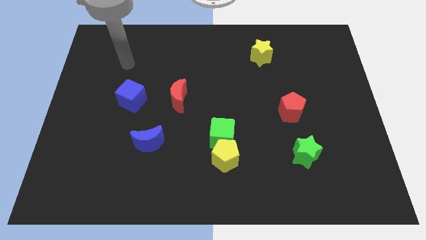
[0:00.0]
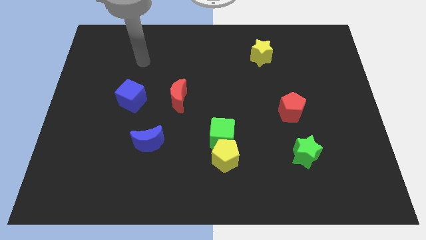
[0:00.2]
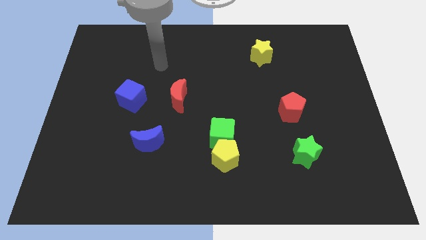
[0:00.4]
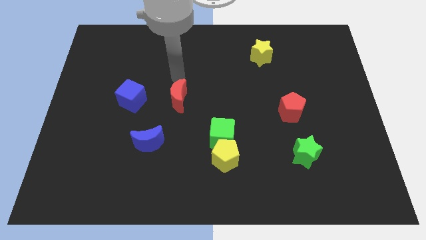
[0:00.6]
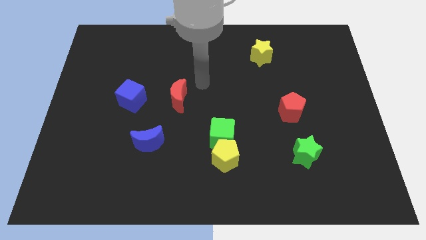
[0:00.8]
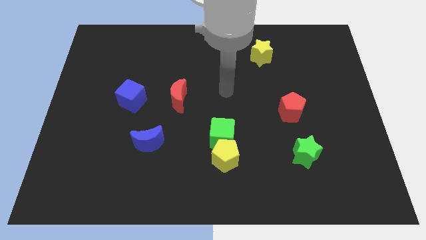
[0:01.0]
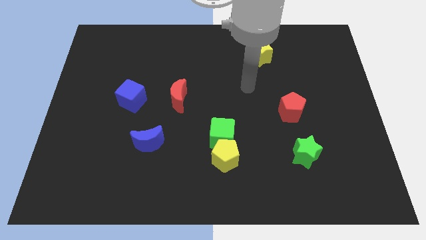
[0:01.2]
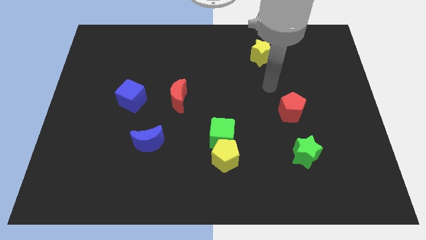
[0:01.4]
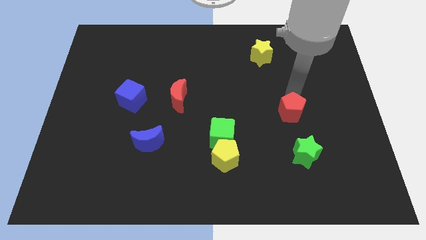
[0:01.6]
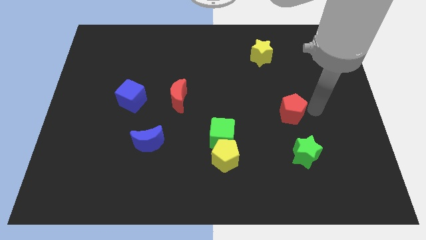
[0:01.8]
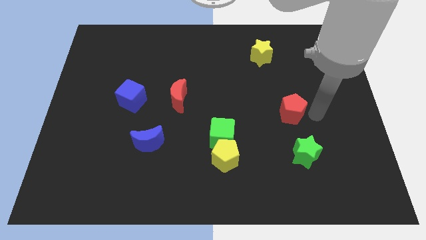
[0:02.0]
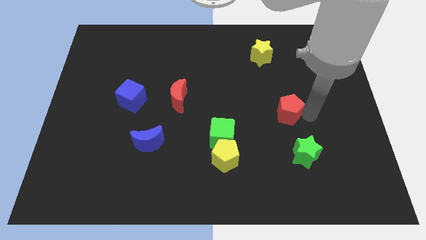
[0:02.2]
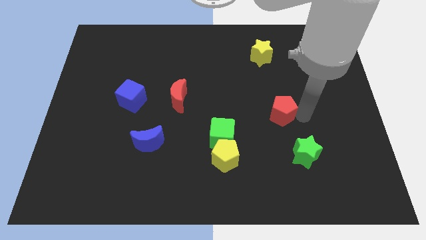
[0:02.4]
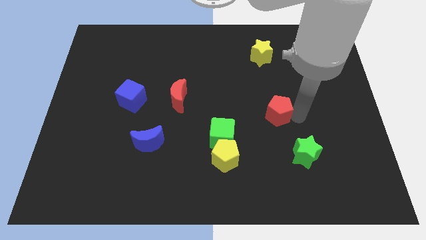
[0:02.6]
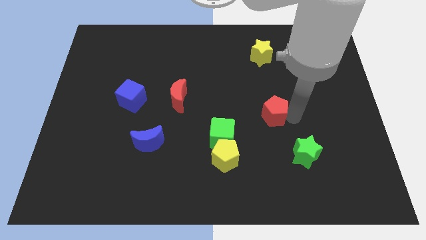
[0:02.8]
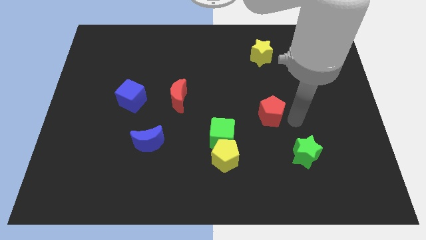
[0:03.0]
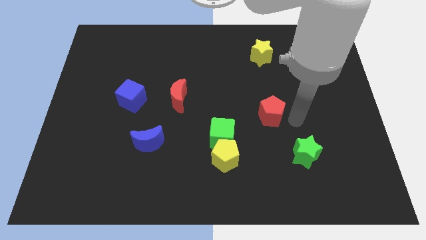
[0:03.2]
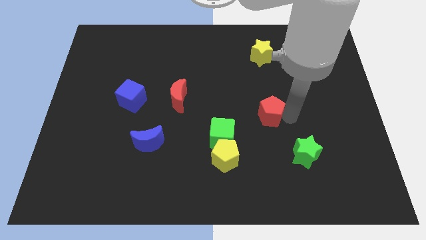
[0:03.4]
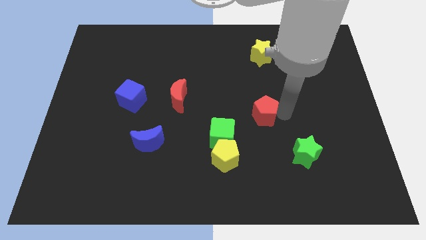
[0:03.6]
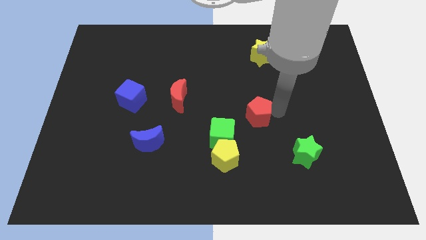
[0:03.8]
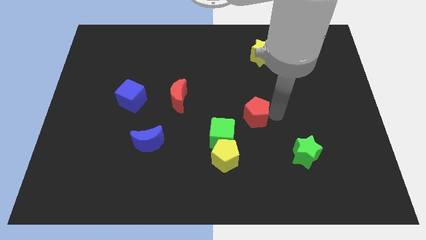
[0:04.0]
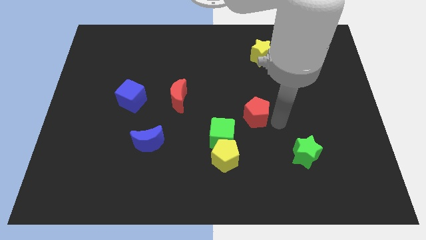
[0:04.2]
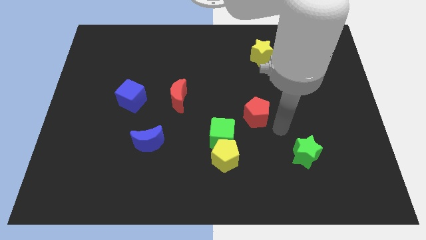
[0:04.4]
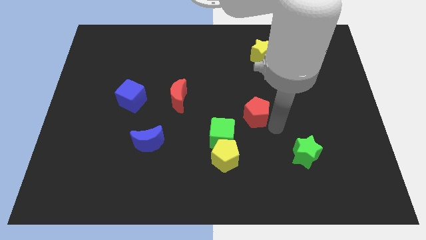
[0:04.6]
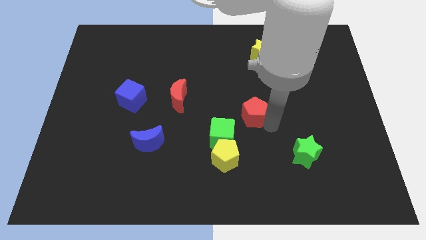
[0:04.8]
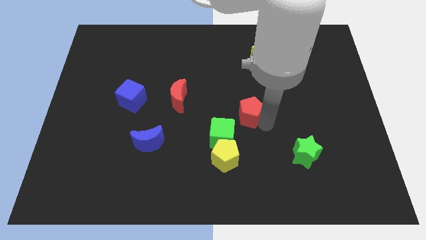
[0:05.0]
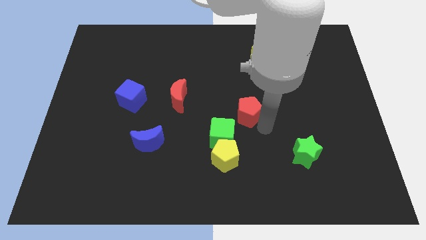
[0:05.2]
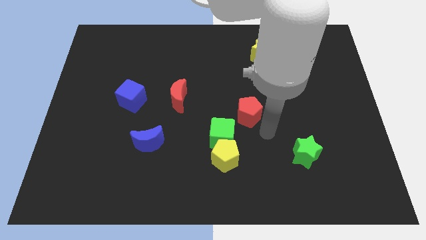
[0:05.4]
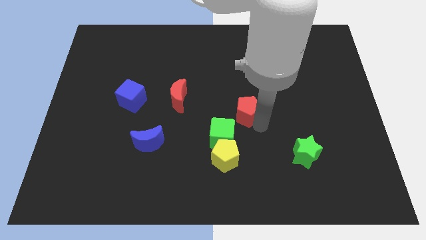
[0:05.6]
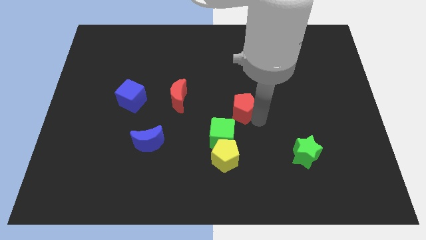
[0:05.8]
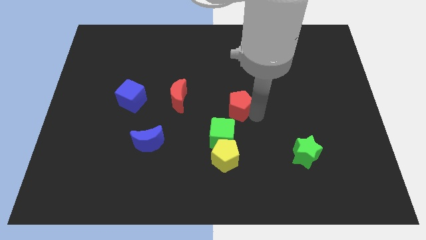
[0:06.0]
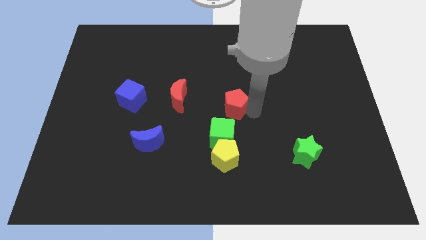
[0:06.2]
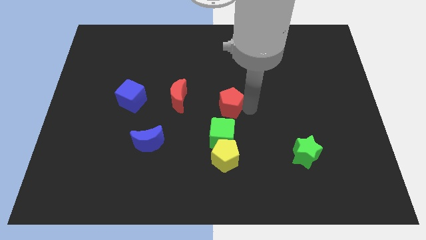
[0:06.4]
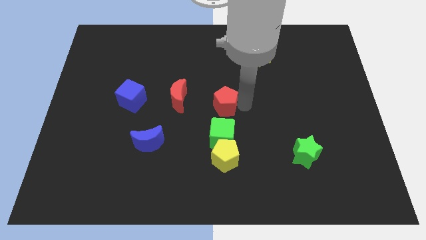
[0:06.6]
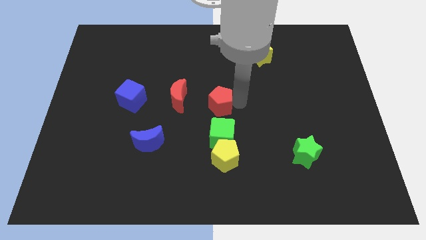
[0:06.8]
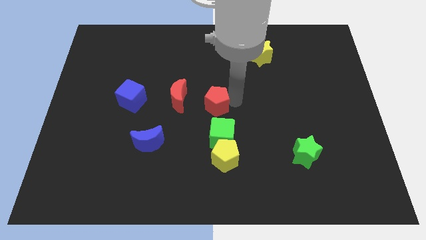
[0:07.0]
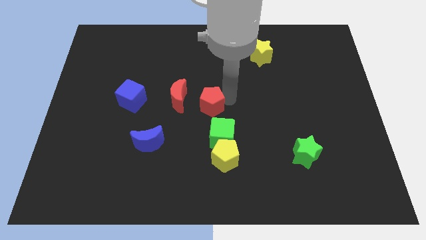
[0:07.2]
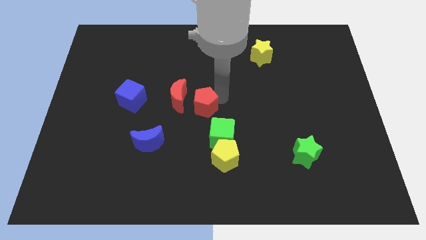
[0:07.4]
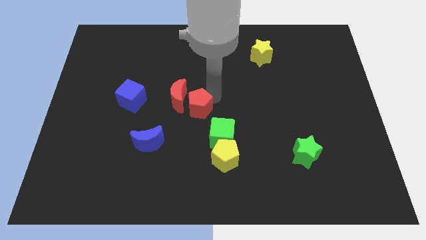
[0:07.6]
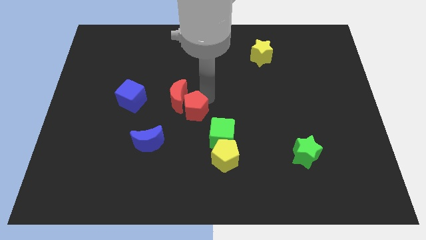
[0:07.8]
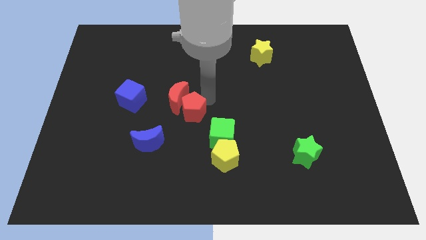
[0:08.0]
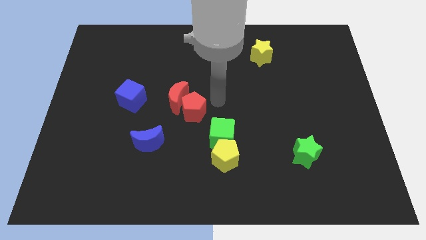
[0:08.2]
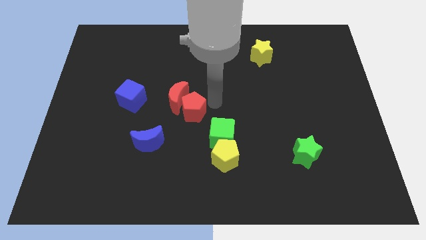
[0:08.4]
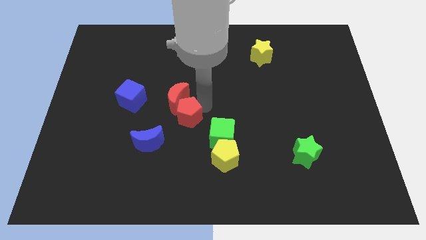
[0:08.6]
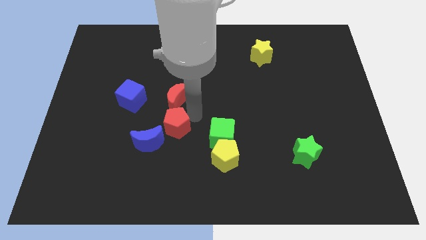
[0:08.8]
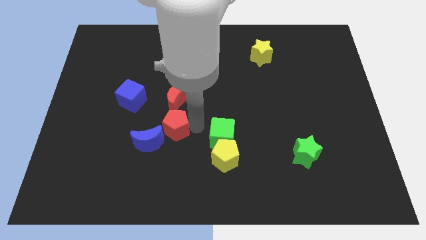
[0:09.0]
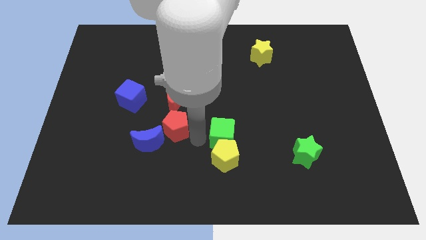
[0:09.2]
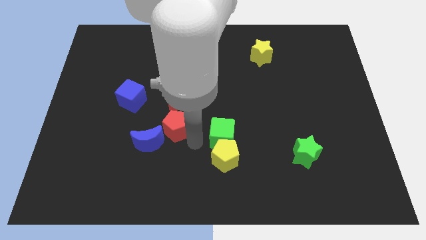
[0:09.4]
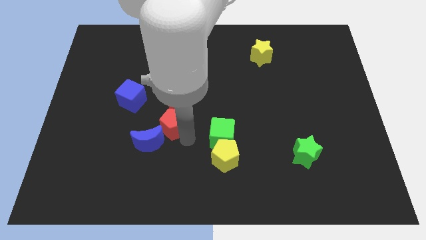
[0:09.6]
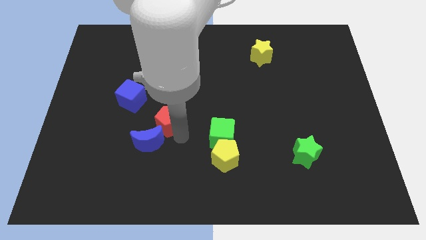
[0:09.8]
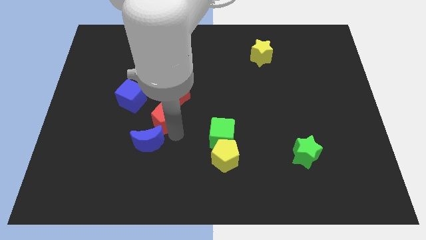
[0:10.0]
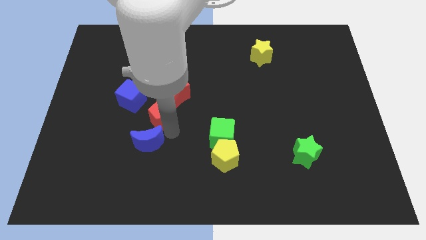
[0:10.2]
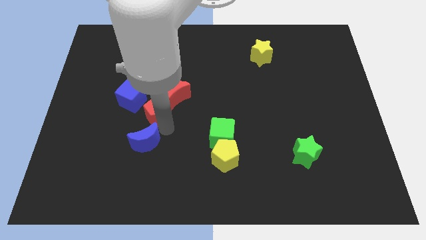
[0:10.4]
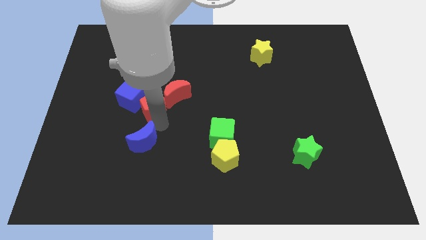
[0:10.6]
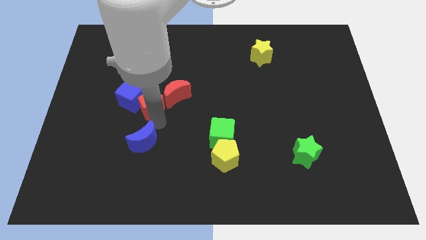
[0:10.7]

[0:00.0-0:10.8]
move the red pentagon close to the blue cube

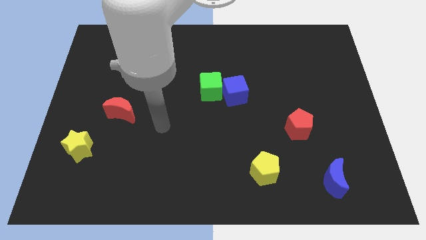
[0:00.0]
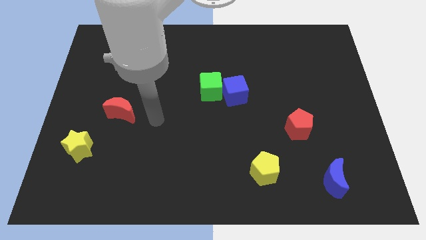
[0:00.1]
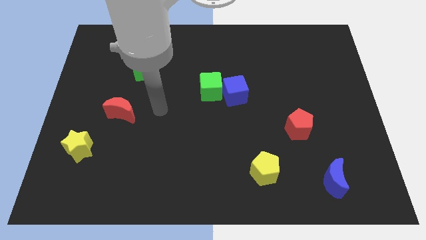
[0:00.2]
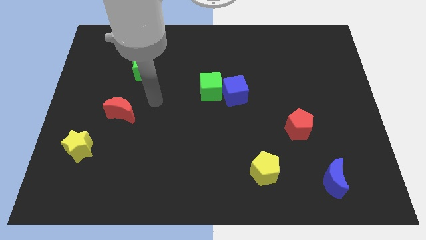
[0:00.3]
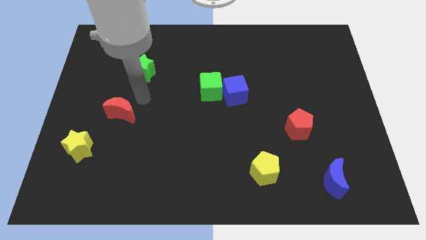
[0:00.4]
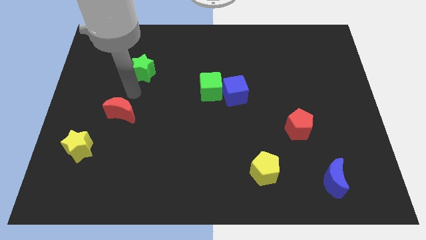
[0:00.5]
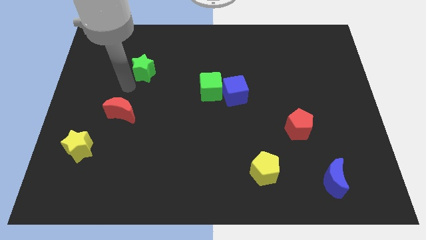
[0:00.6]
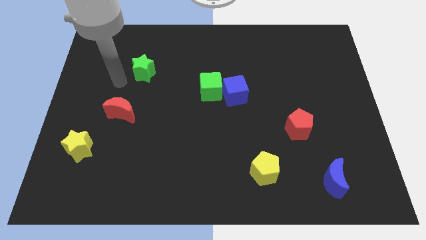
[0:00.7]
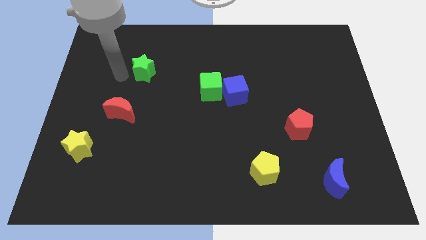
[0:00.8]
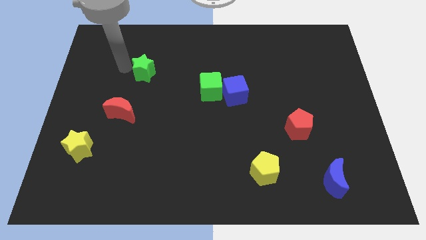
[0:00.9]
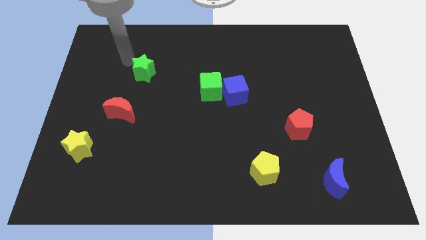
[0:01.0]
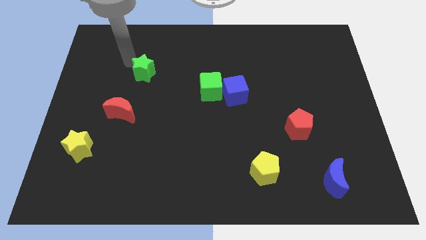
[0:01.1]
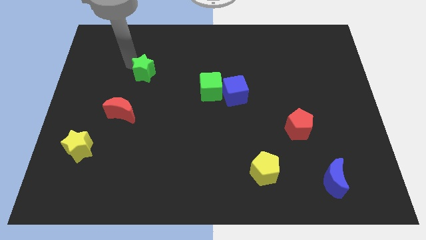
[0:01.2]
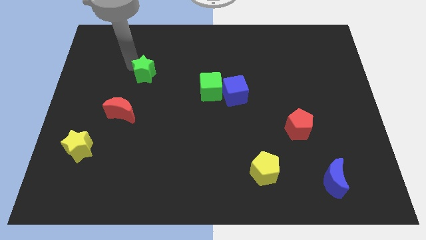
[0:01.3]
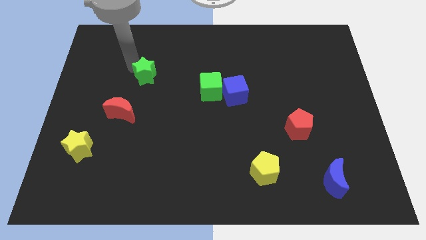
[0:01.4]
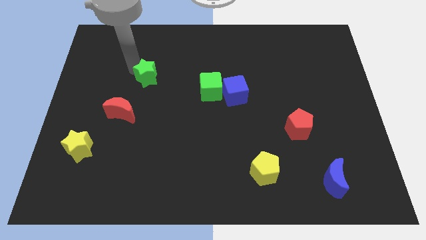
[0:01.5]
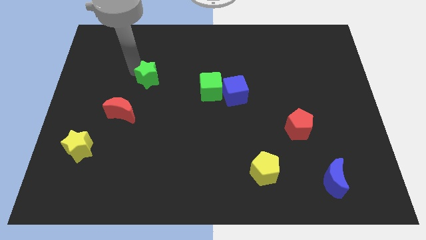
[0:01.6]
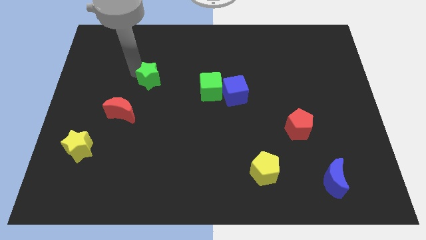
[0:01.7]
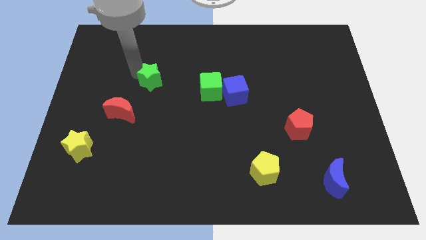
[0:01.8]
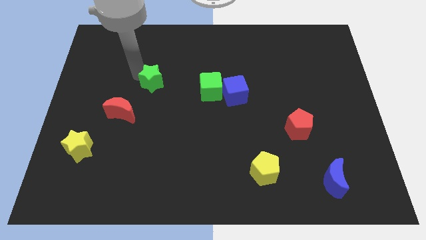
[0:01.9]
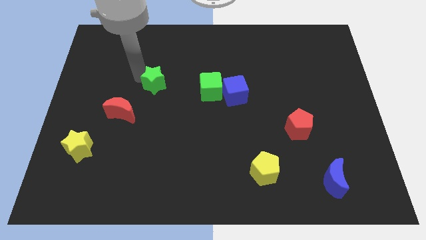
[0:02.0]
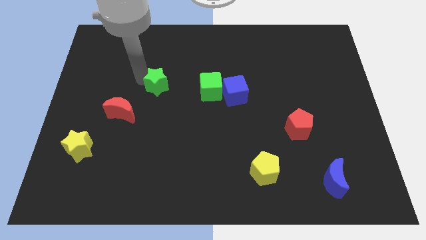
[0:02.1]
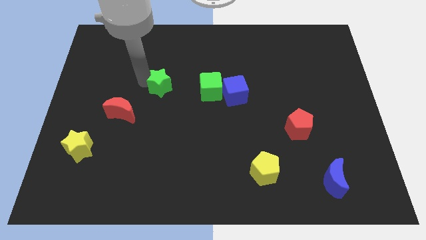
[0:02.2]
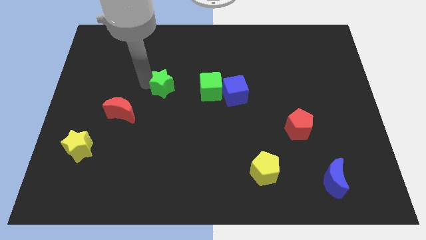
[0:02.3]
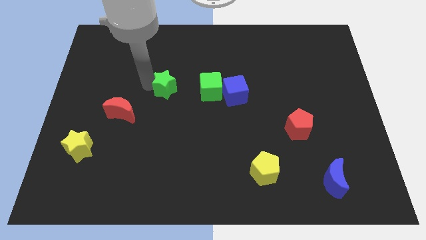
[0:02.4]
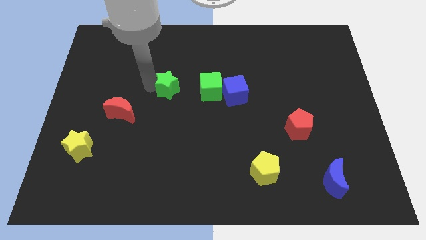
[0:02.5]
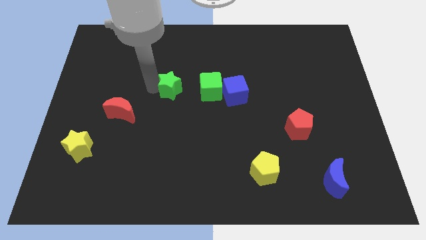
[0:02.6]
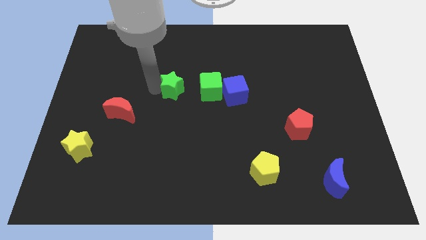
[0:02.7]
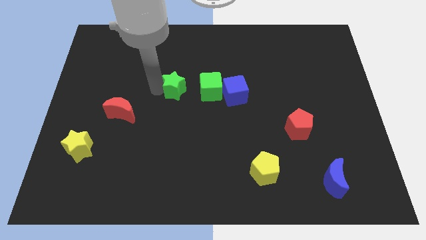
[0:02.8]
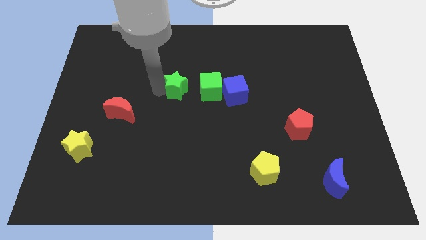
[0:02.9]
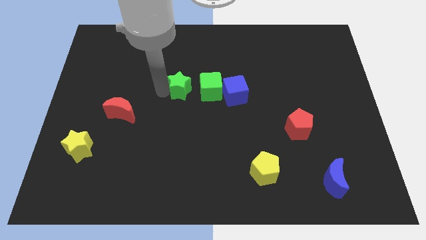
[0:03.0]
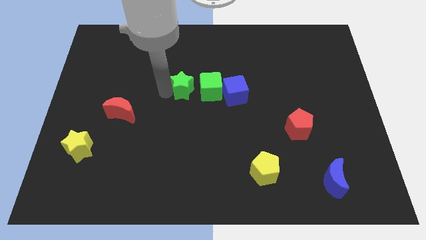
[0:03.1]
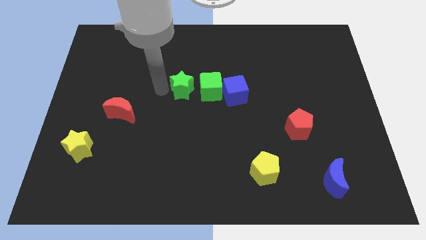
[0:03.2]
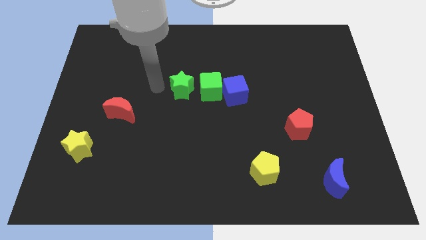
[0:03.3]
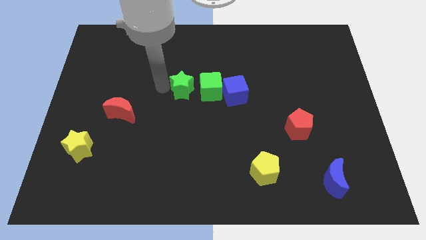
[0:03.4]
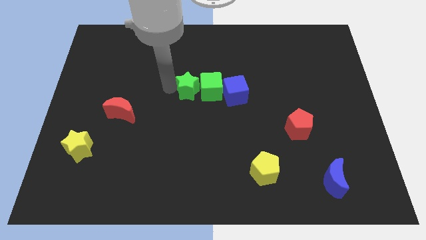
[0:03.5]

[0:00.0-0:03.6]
slide the green star towards the green cube
